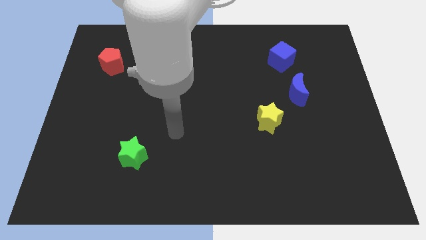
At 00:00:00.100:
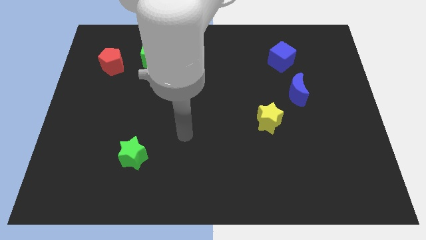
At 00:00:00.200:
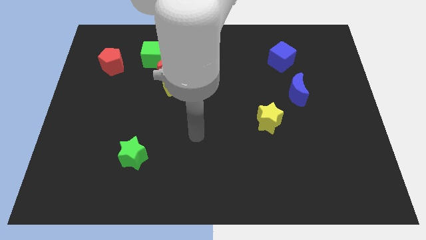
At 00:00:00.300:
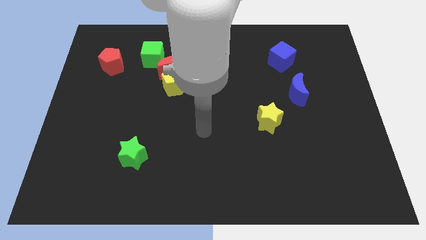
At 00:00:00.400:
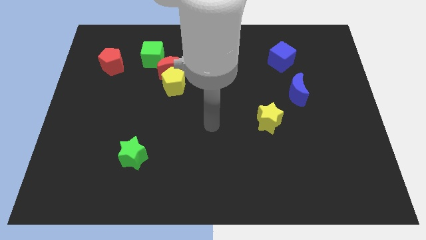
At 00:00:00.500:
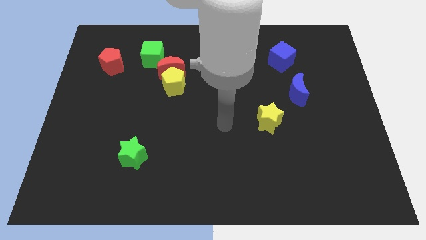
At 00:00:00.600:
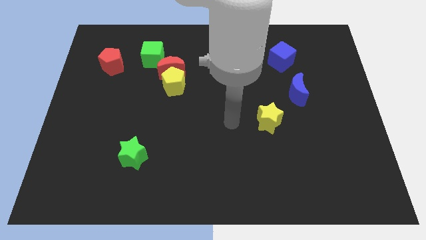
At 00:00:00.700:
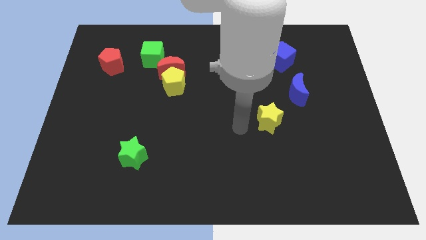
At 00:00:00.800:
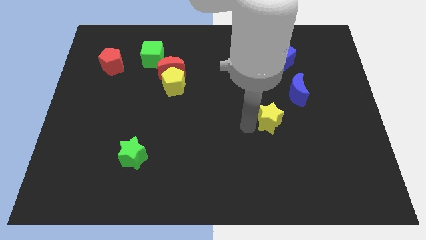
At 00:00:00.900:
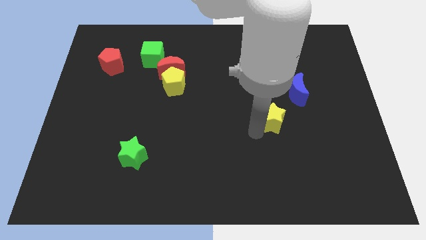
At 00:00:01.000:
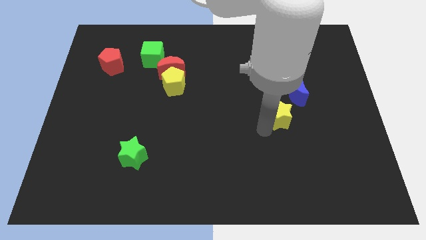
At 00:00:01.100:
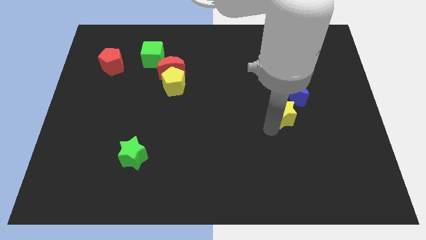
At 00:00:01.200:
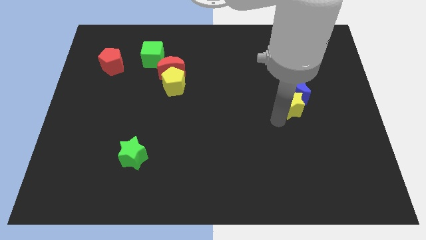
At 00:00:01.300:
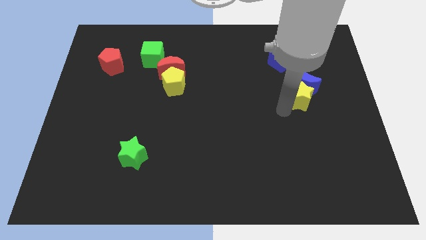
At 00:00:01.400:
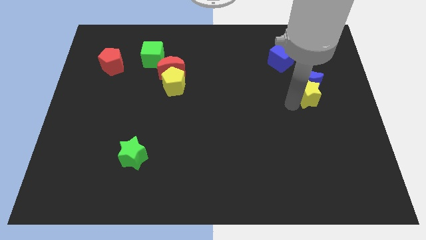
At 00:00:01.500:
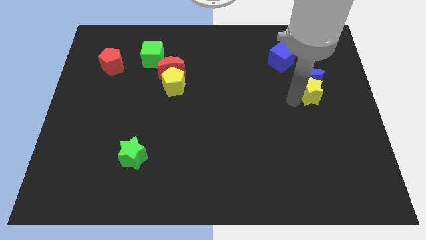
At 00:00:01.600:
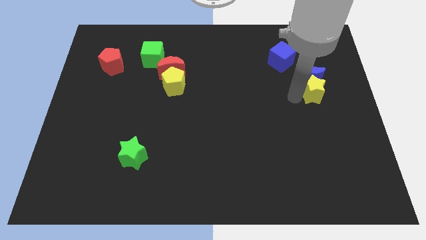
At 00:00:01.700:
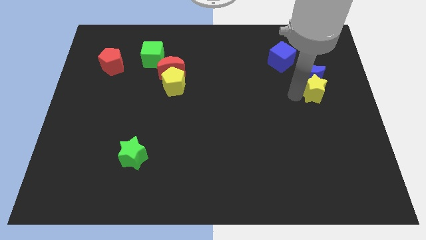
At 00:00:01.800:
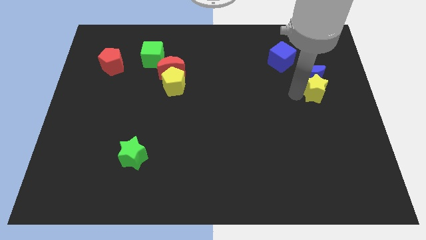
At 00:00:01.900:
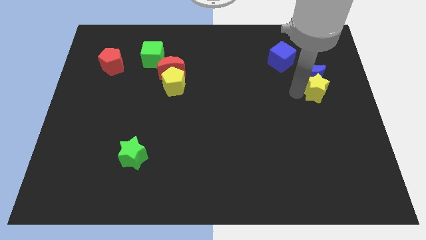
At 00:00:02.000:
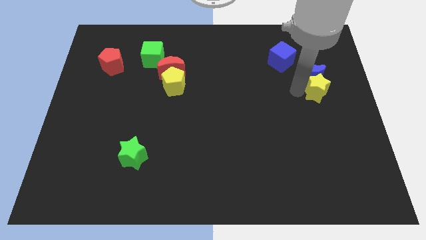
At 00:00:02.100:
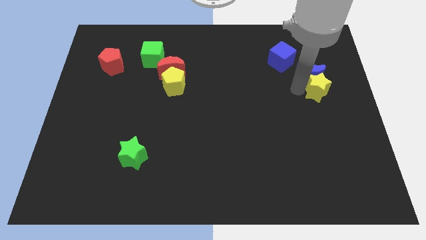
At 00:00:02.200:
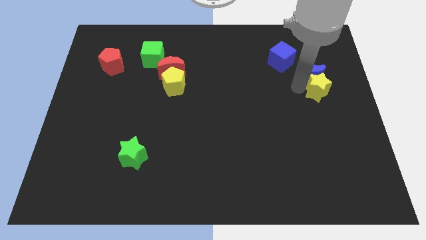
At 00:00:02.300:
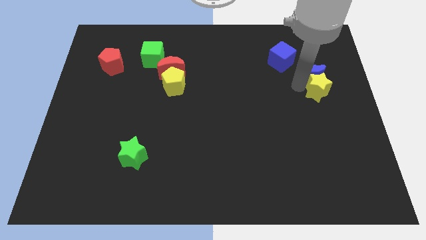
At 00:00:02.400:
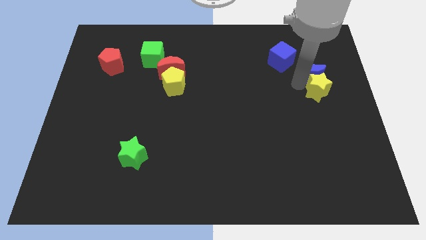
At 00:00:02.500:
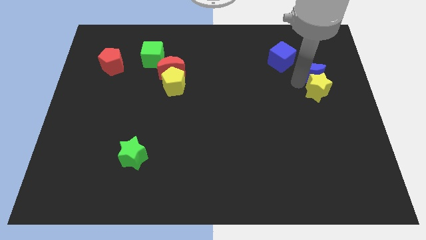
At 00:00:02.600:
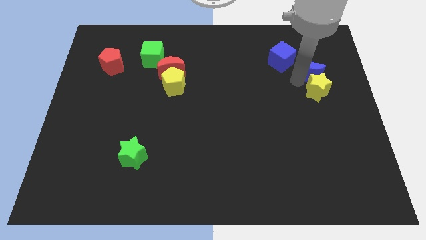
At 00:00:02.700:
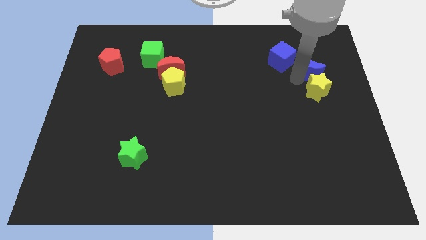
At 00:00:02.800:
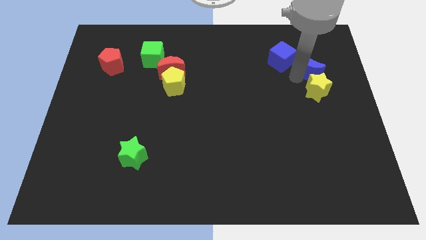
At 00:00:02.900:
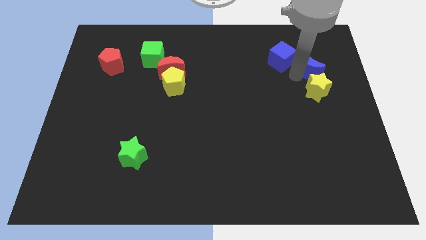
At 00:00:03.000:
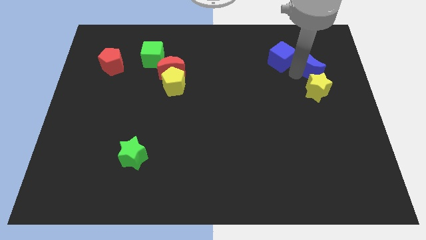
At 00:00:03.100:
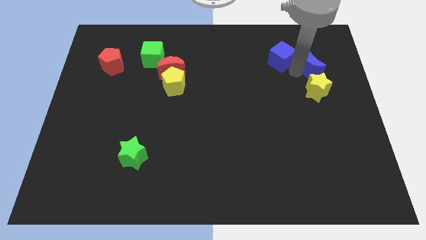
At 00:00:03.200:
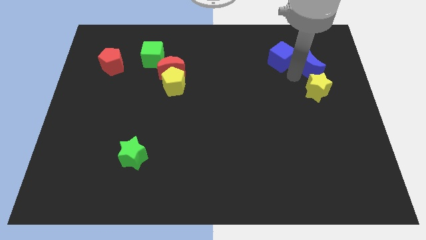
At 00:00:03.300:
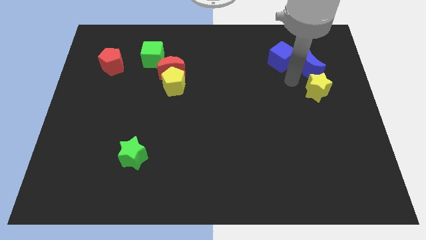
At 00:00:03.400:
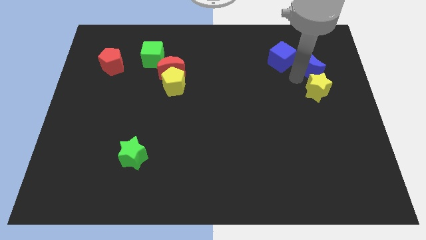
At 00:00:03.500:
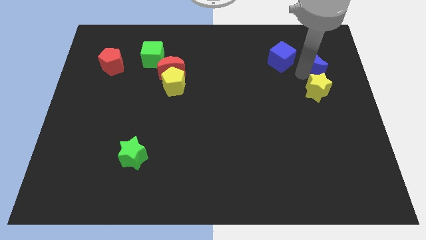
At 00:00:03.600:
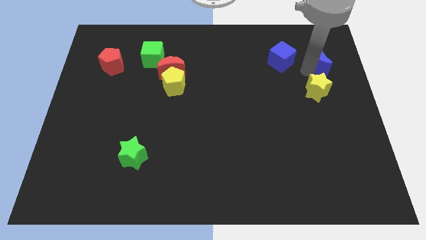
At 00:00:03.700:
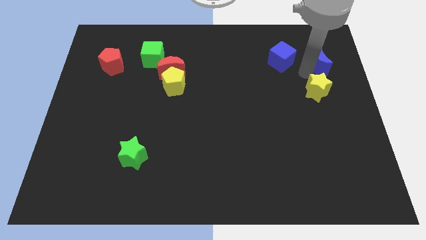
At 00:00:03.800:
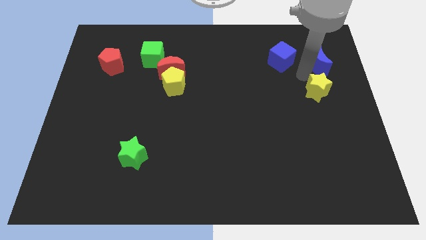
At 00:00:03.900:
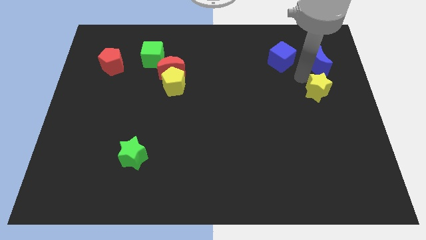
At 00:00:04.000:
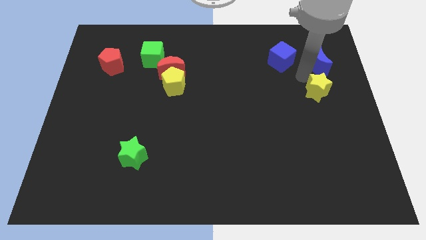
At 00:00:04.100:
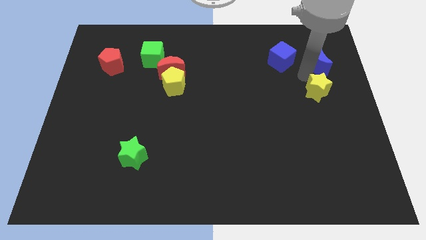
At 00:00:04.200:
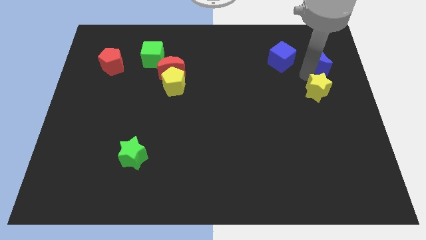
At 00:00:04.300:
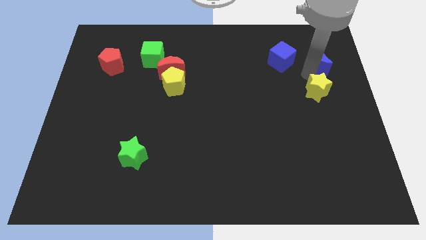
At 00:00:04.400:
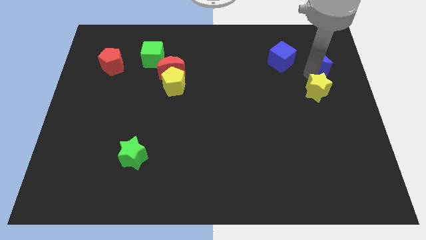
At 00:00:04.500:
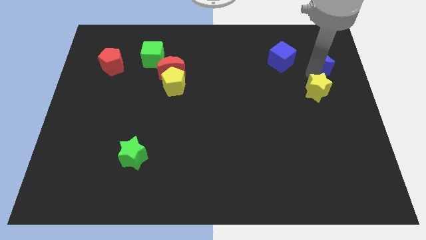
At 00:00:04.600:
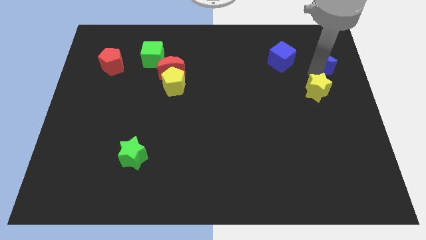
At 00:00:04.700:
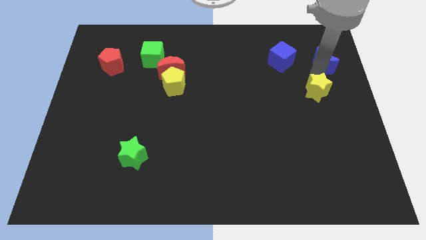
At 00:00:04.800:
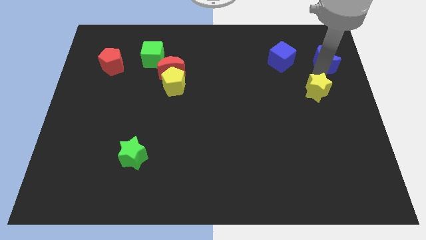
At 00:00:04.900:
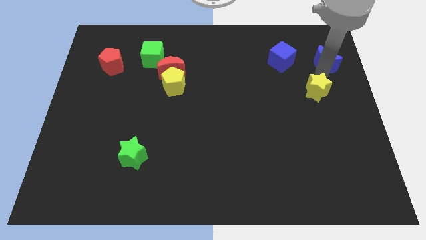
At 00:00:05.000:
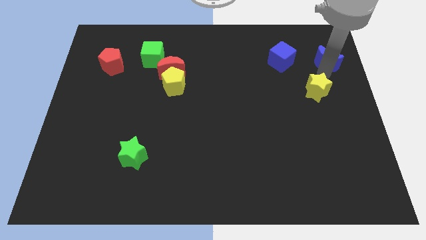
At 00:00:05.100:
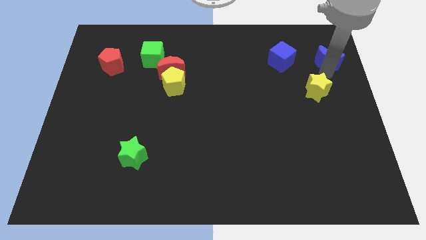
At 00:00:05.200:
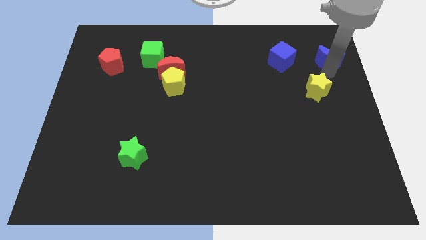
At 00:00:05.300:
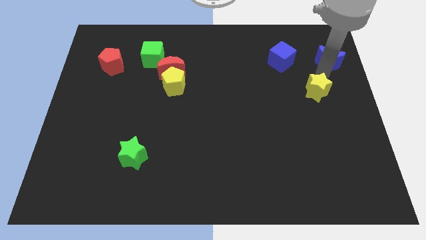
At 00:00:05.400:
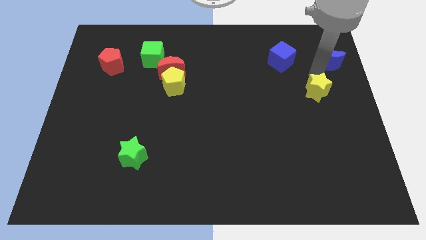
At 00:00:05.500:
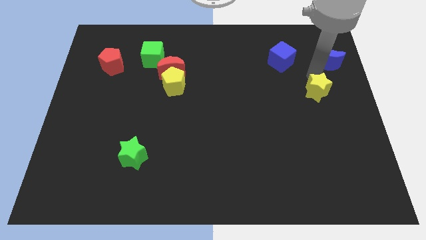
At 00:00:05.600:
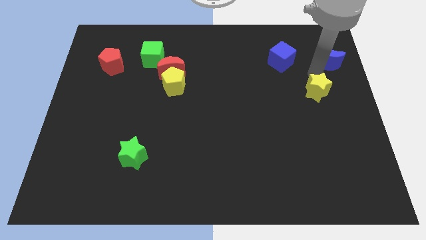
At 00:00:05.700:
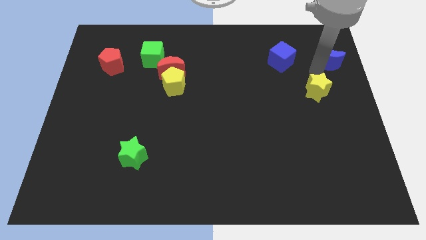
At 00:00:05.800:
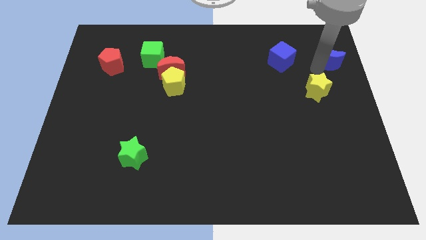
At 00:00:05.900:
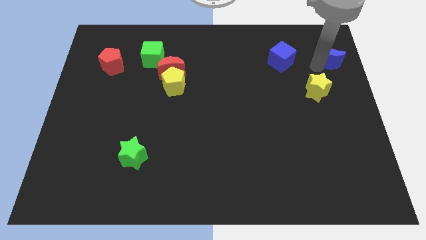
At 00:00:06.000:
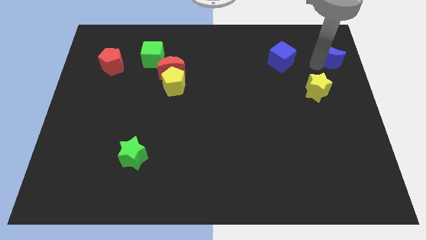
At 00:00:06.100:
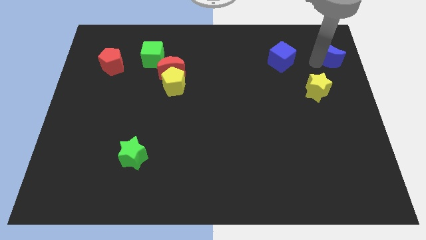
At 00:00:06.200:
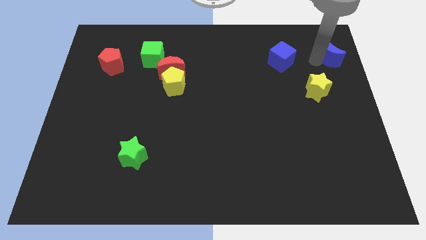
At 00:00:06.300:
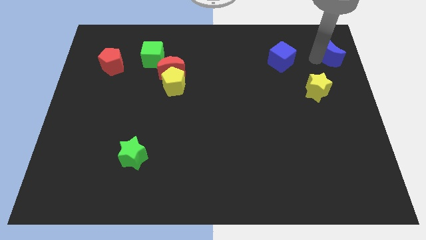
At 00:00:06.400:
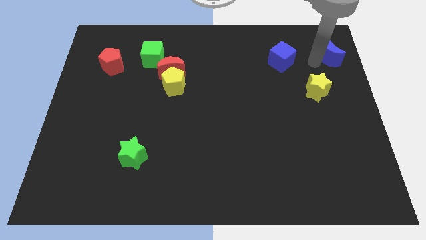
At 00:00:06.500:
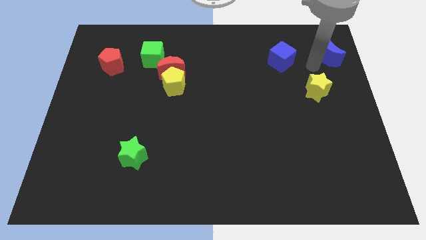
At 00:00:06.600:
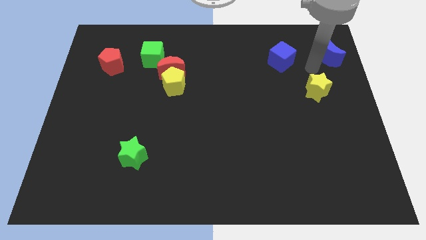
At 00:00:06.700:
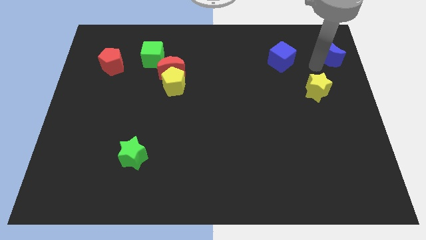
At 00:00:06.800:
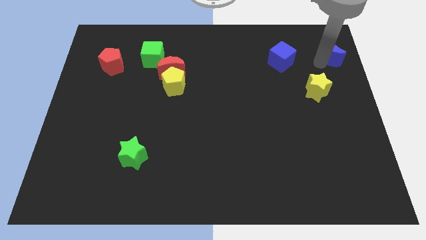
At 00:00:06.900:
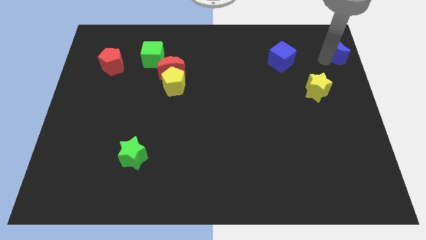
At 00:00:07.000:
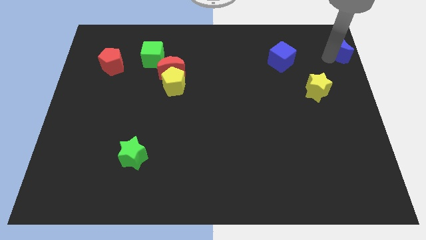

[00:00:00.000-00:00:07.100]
move the blue moon to the top right
